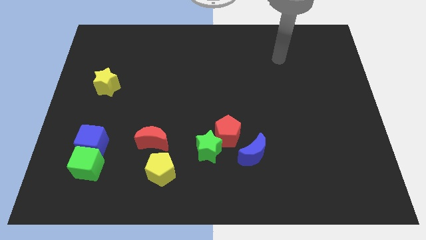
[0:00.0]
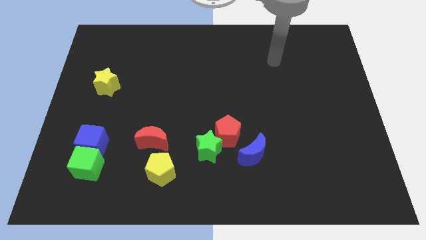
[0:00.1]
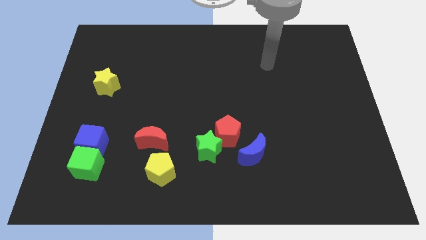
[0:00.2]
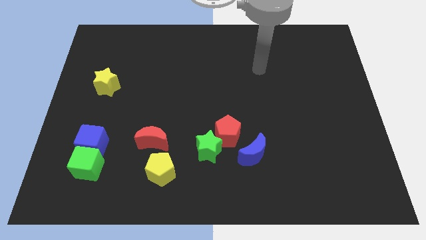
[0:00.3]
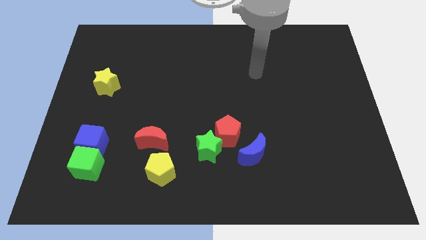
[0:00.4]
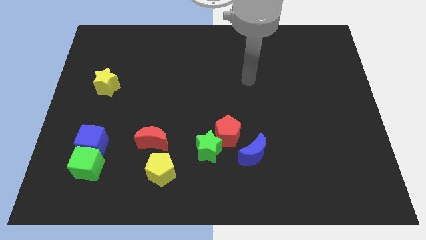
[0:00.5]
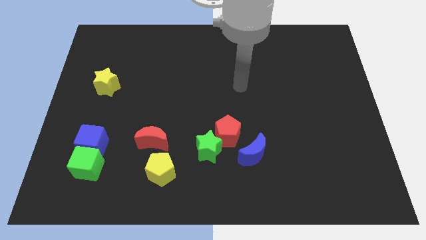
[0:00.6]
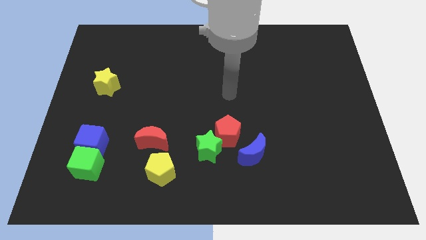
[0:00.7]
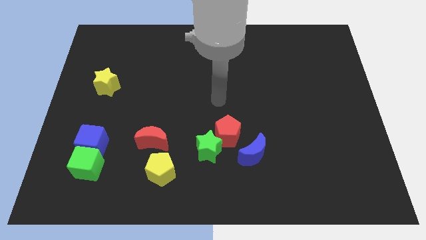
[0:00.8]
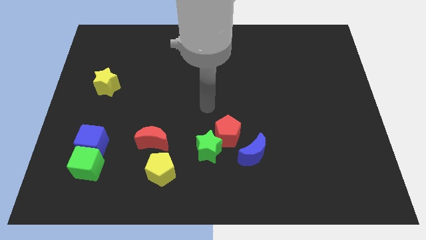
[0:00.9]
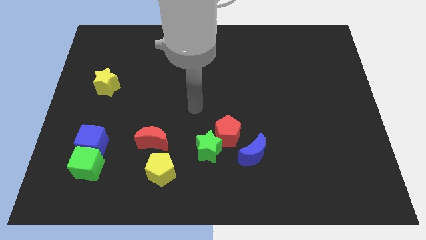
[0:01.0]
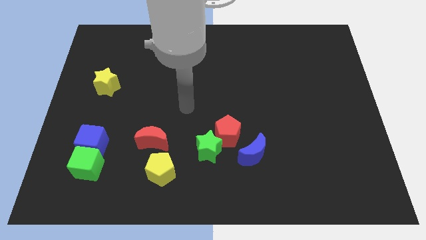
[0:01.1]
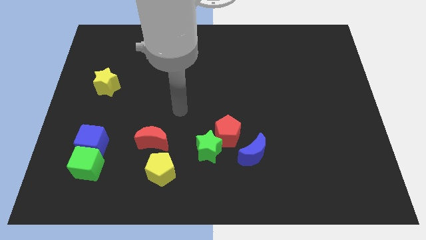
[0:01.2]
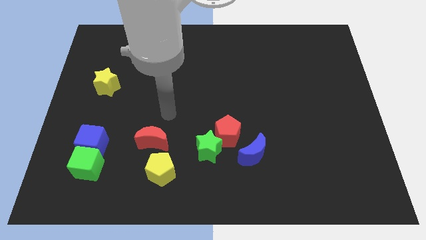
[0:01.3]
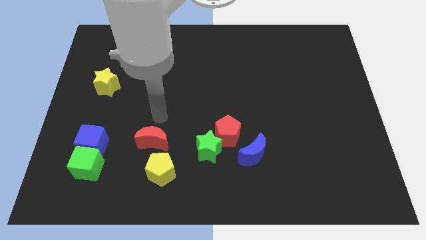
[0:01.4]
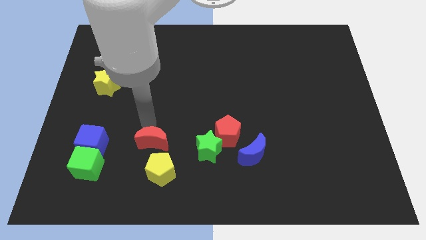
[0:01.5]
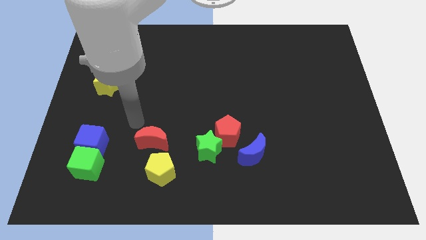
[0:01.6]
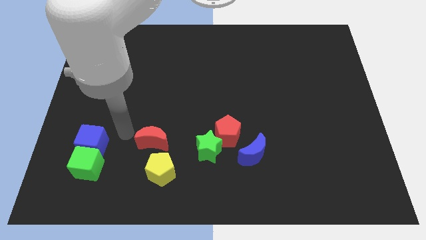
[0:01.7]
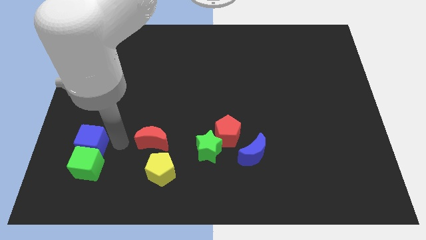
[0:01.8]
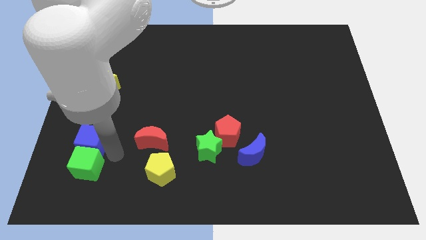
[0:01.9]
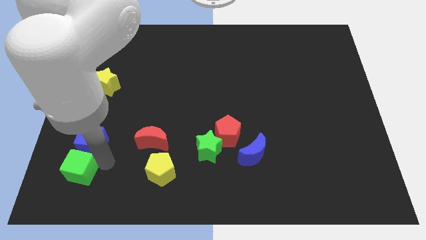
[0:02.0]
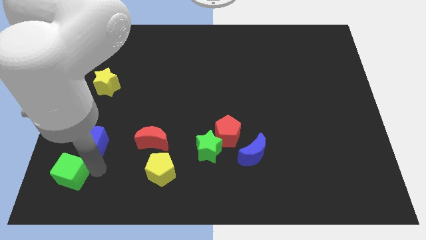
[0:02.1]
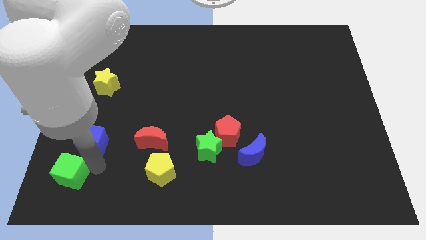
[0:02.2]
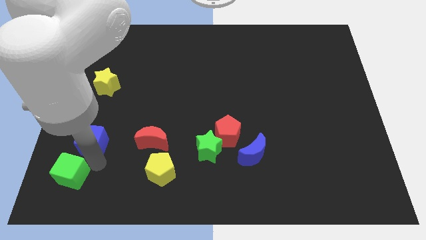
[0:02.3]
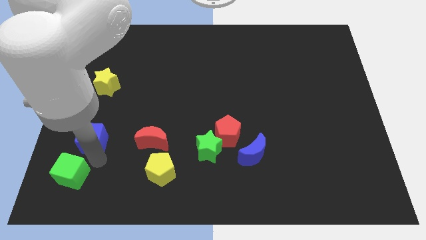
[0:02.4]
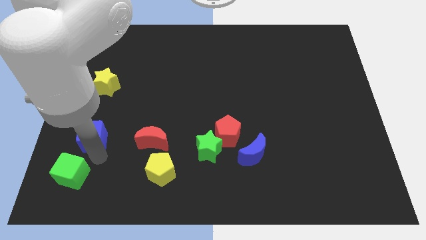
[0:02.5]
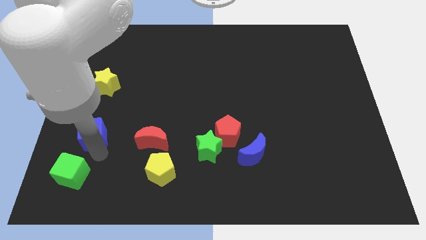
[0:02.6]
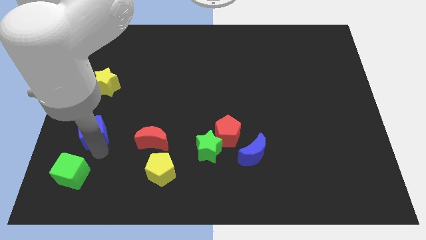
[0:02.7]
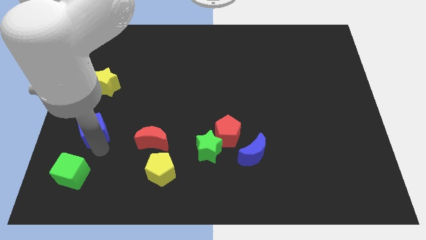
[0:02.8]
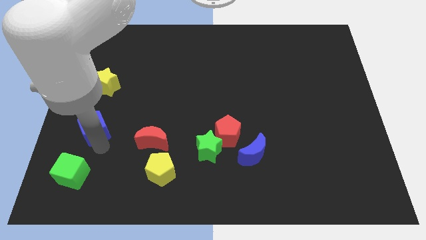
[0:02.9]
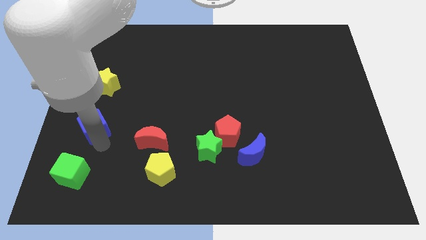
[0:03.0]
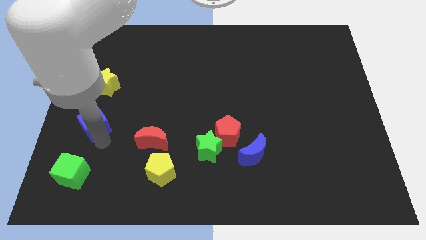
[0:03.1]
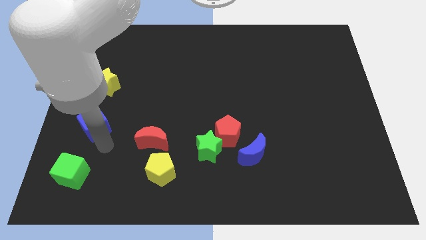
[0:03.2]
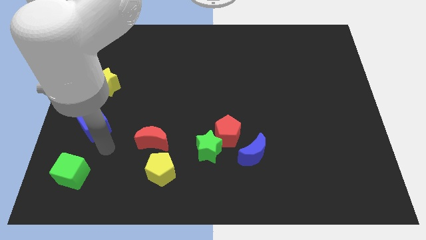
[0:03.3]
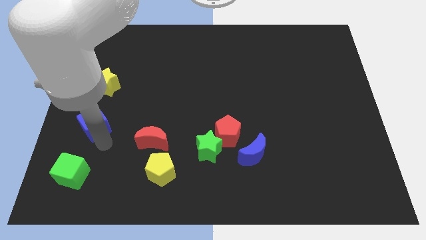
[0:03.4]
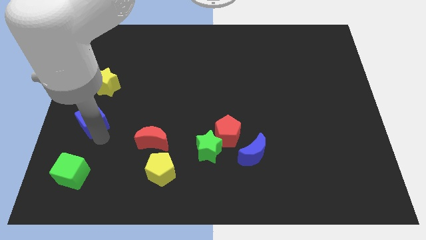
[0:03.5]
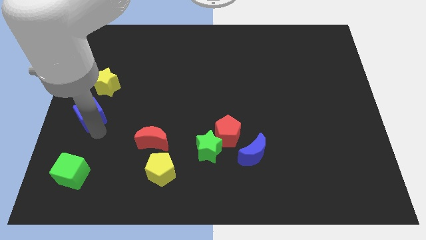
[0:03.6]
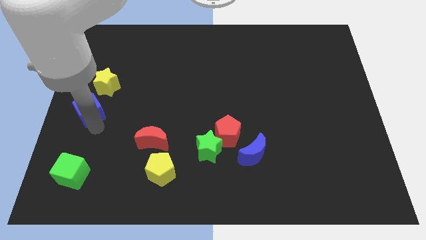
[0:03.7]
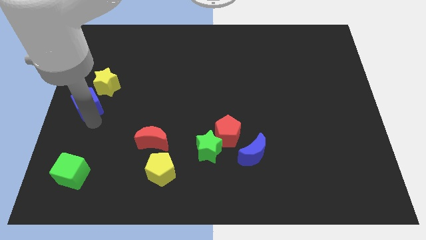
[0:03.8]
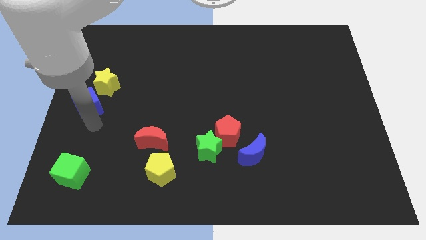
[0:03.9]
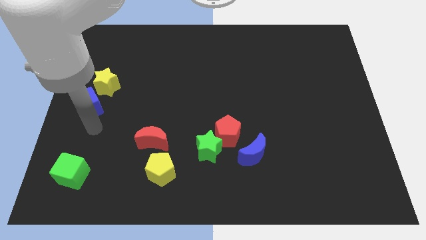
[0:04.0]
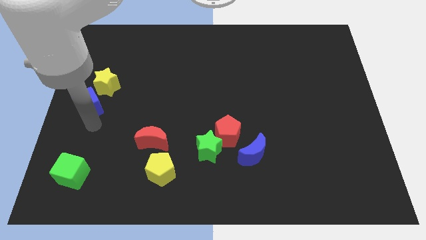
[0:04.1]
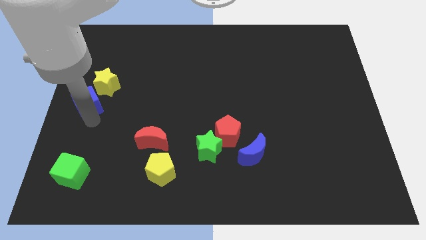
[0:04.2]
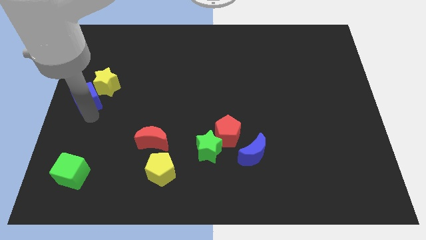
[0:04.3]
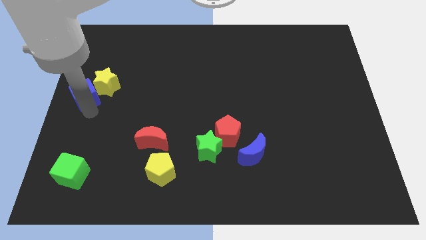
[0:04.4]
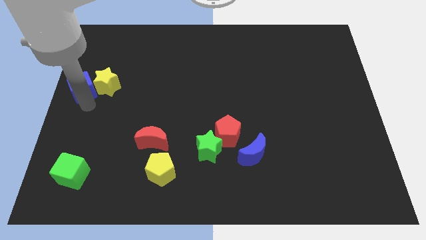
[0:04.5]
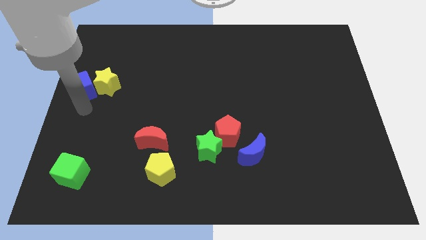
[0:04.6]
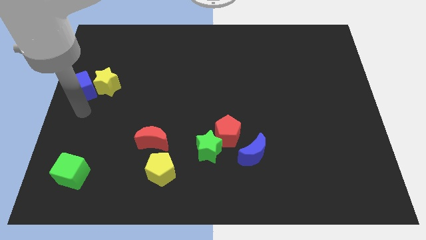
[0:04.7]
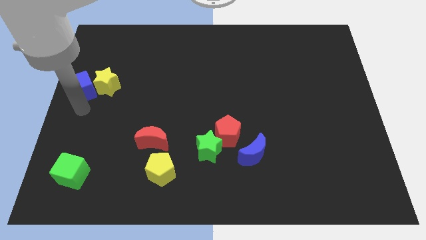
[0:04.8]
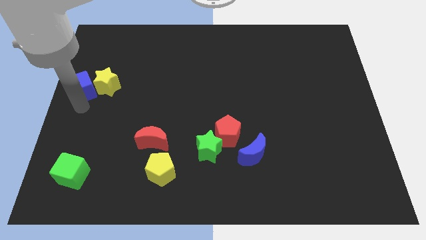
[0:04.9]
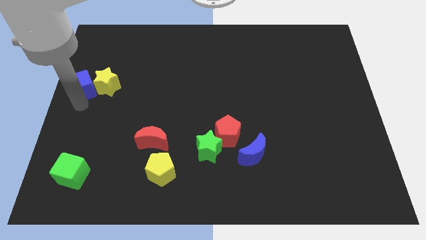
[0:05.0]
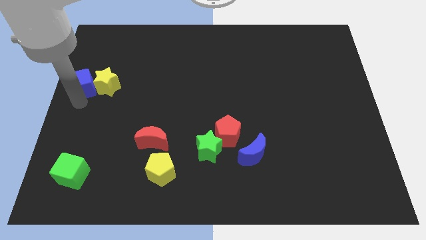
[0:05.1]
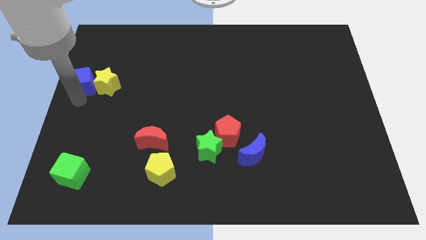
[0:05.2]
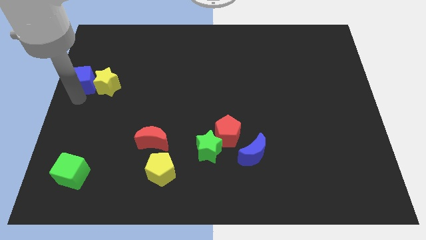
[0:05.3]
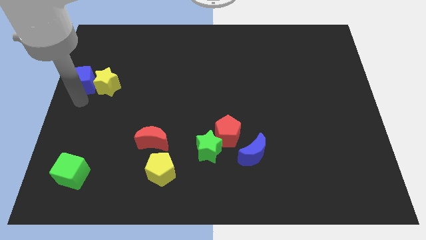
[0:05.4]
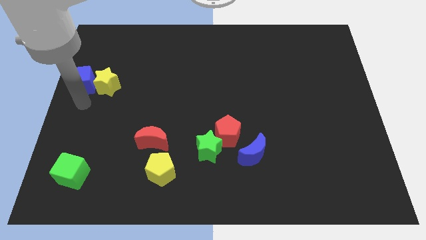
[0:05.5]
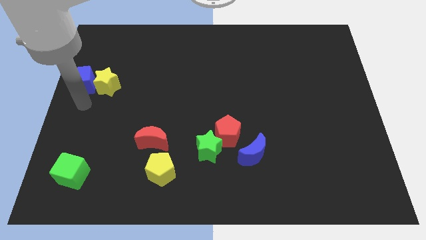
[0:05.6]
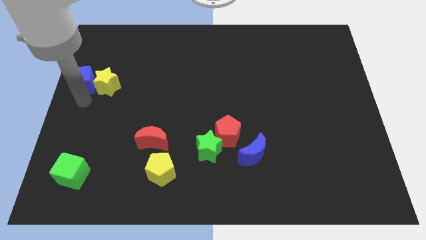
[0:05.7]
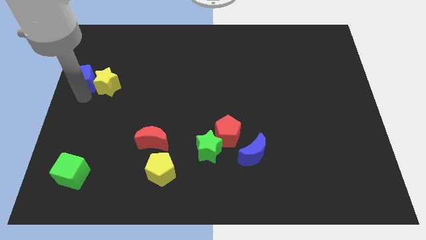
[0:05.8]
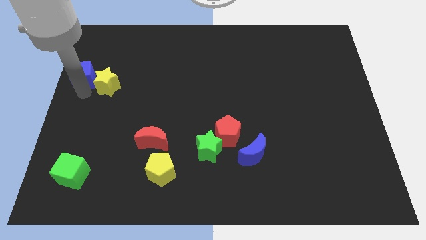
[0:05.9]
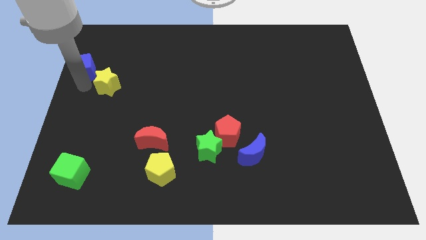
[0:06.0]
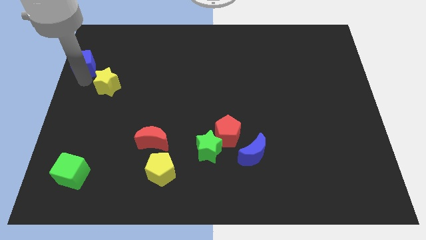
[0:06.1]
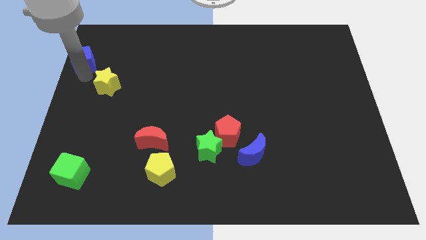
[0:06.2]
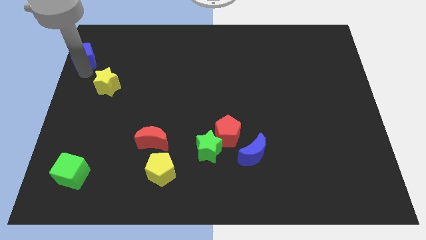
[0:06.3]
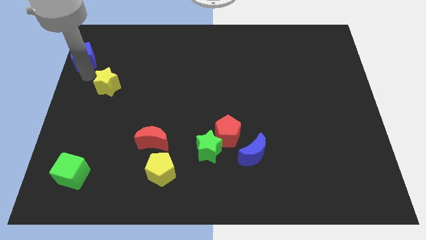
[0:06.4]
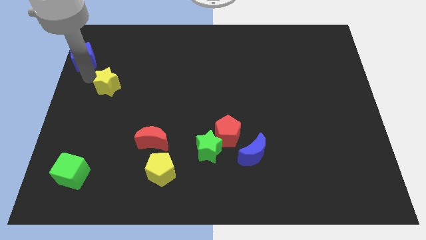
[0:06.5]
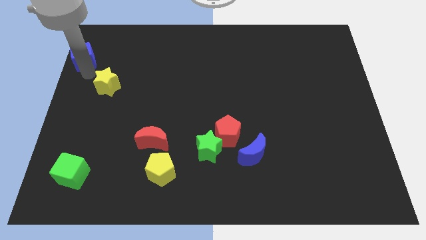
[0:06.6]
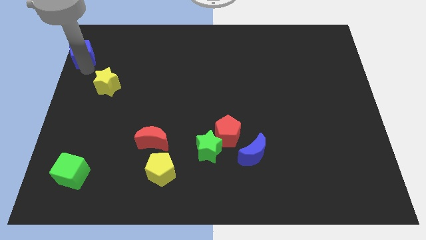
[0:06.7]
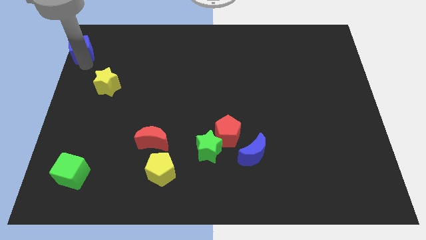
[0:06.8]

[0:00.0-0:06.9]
move the blue cube to the upper left corner
